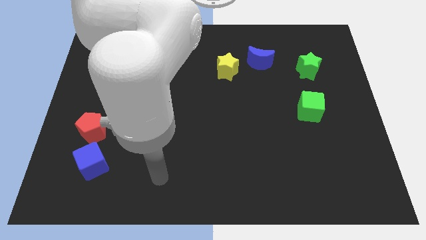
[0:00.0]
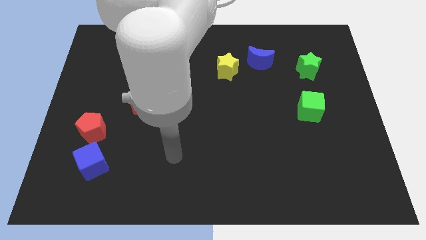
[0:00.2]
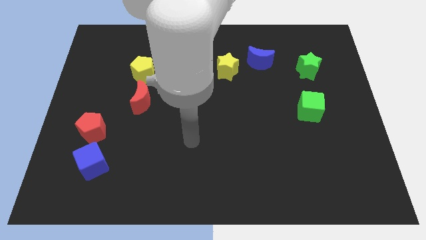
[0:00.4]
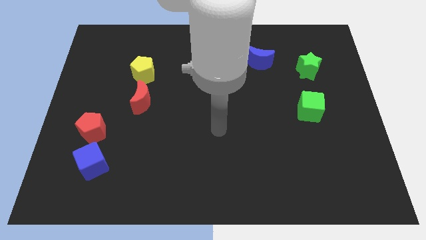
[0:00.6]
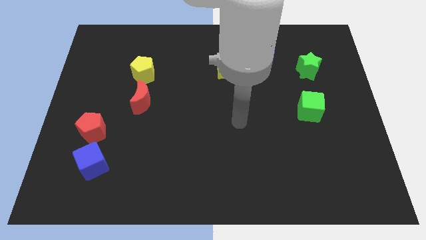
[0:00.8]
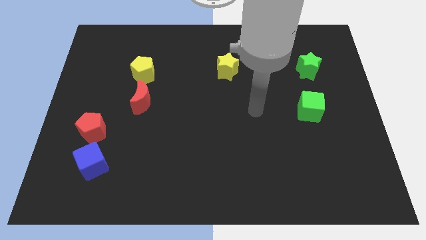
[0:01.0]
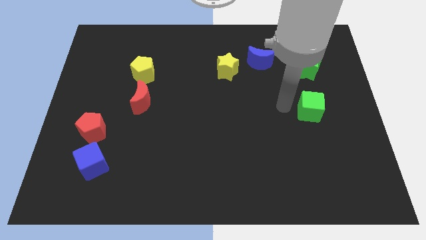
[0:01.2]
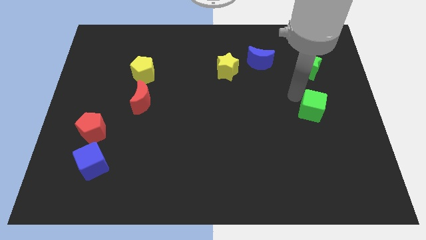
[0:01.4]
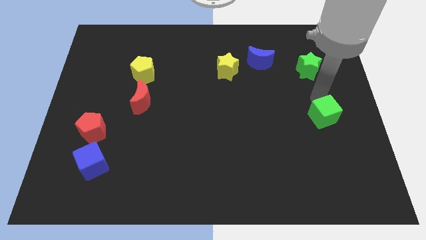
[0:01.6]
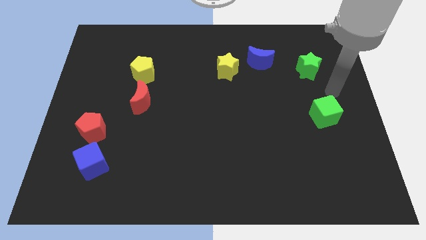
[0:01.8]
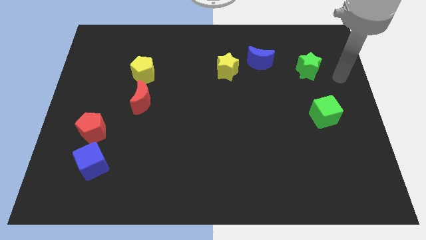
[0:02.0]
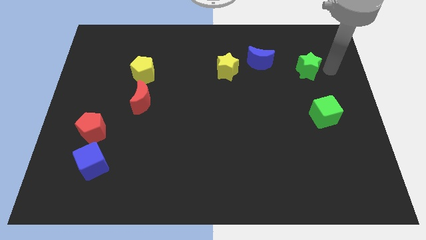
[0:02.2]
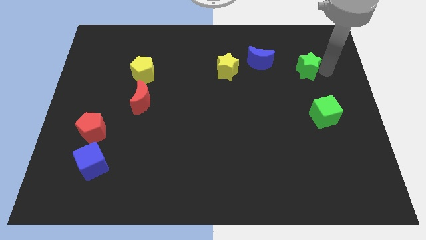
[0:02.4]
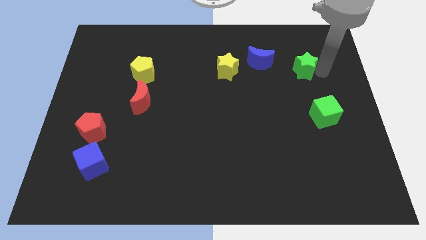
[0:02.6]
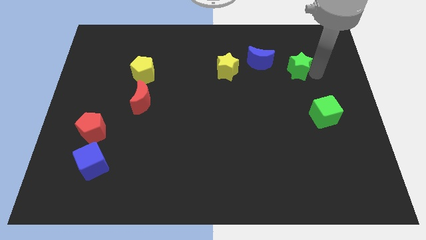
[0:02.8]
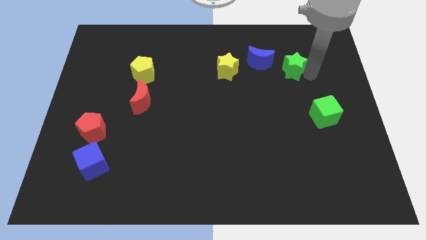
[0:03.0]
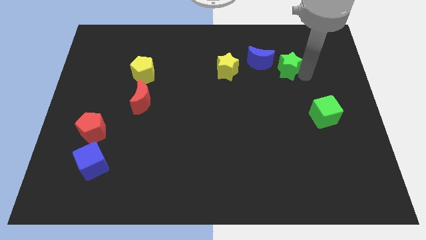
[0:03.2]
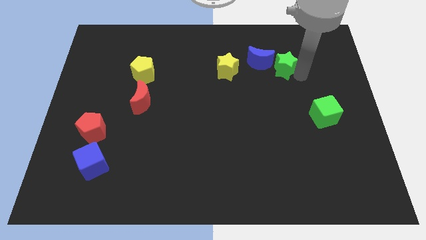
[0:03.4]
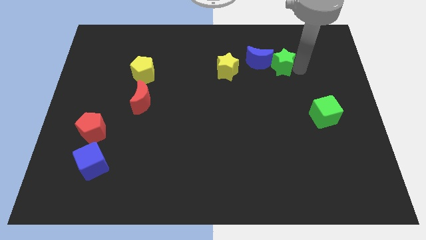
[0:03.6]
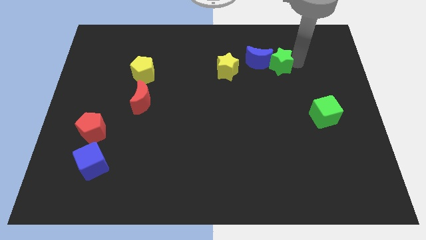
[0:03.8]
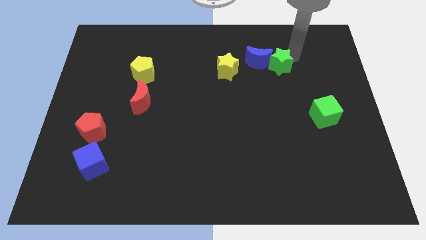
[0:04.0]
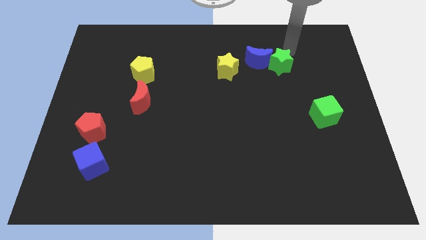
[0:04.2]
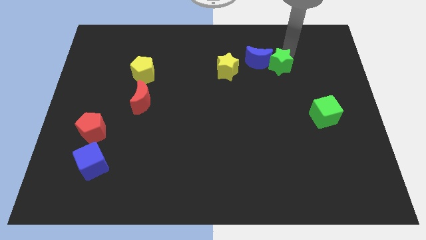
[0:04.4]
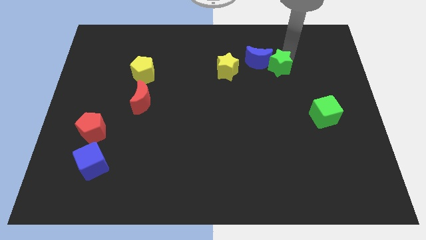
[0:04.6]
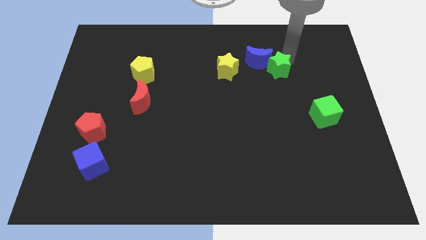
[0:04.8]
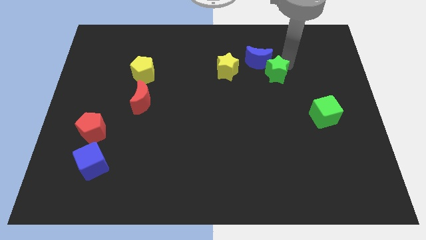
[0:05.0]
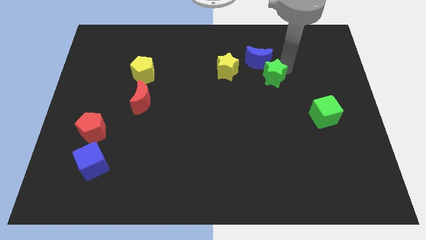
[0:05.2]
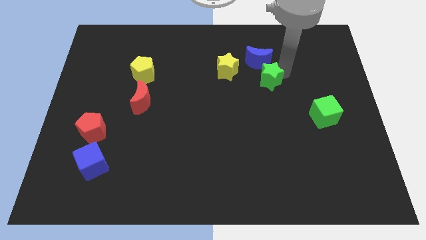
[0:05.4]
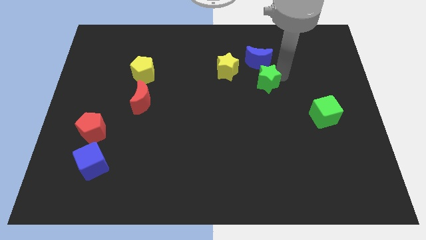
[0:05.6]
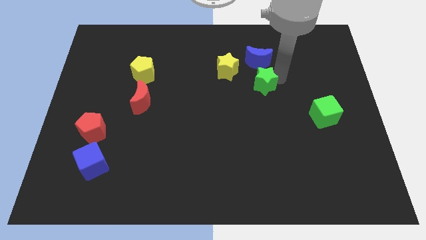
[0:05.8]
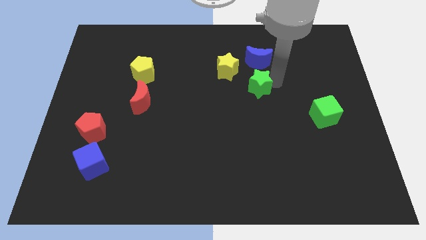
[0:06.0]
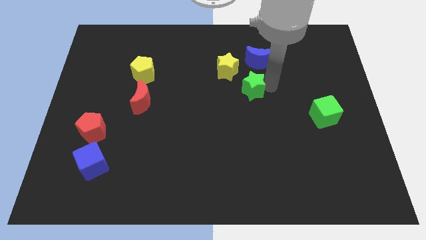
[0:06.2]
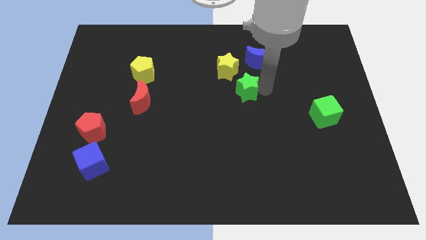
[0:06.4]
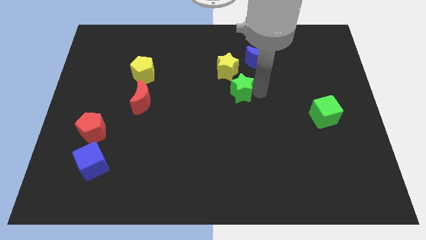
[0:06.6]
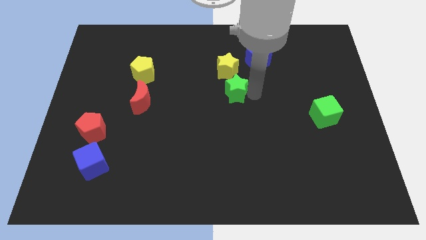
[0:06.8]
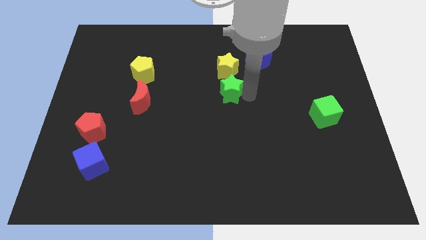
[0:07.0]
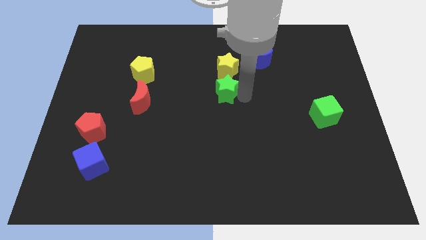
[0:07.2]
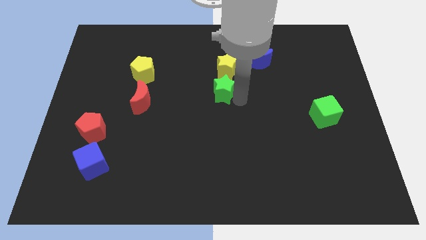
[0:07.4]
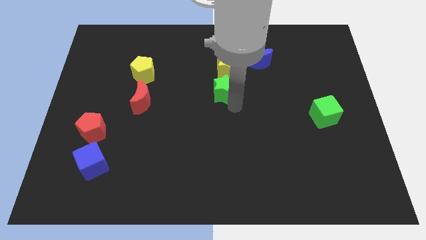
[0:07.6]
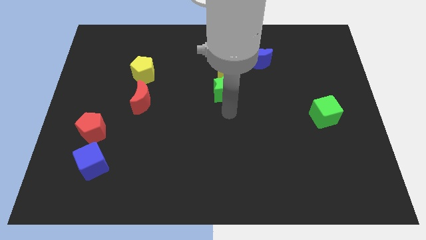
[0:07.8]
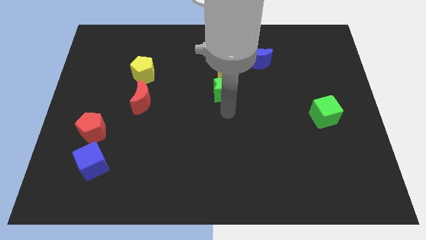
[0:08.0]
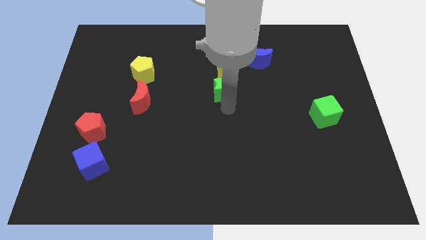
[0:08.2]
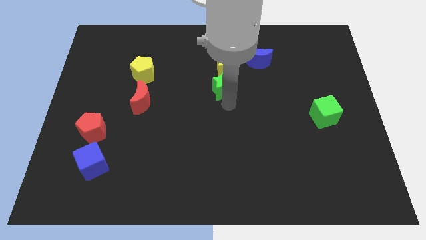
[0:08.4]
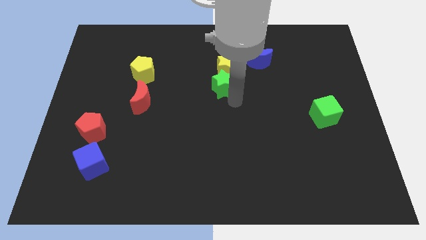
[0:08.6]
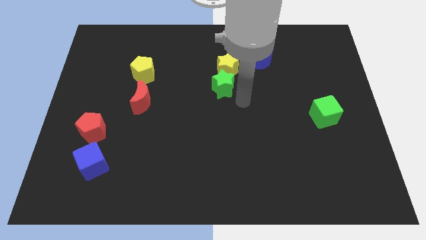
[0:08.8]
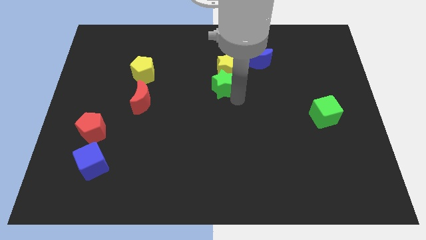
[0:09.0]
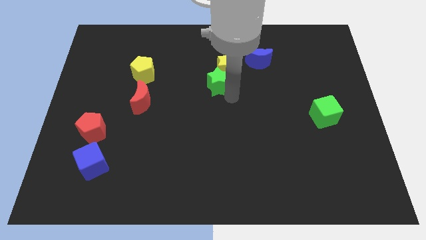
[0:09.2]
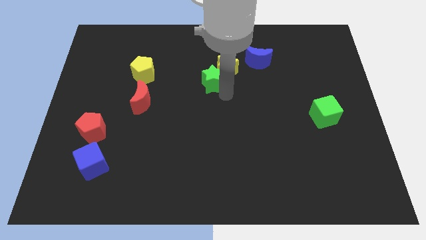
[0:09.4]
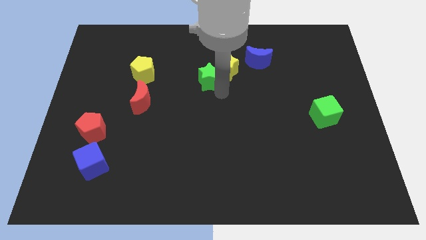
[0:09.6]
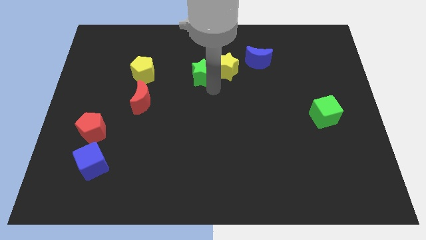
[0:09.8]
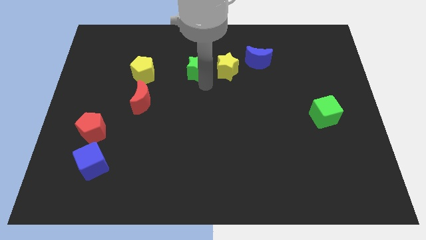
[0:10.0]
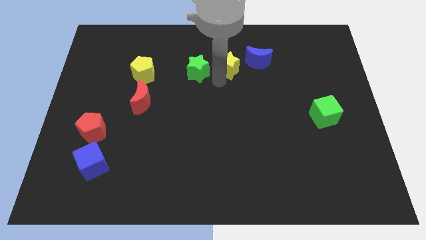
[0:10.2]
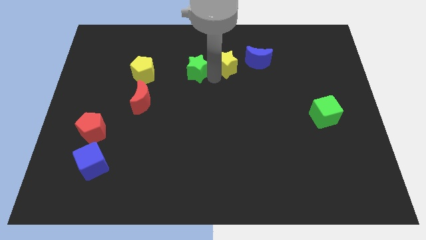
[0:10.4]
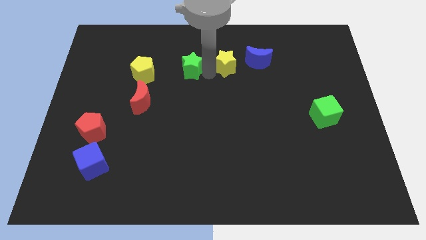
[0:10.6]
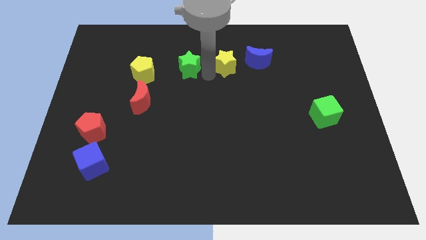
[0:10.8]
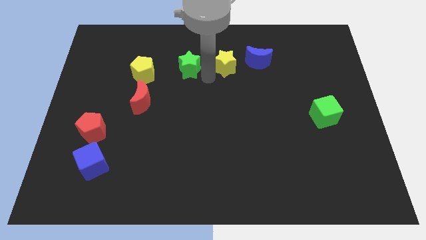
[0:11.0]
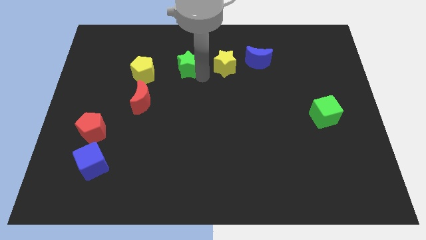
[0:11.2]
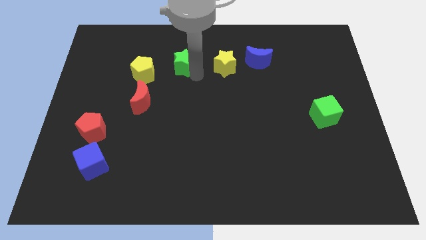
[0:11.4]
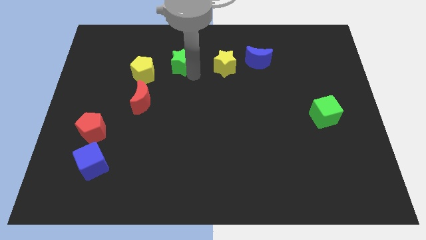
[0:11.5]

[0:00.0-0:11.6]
push the green star to the top right of the yellow pentagon

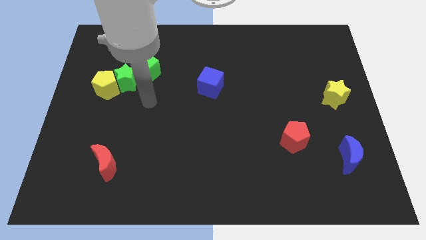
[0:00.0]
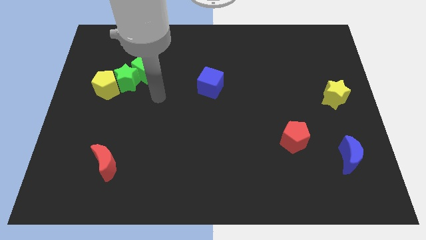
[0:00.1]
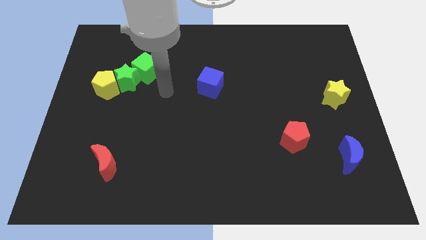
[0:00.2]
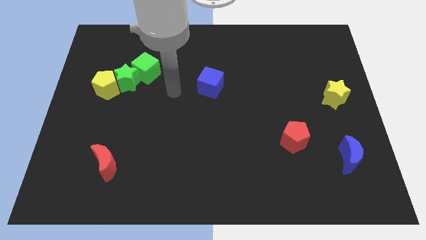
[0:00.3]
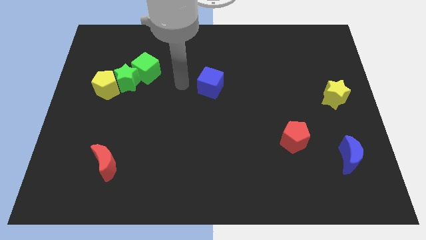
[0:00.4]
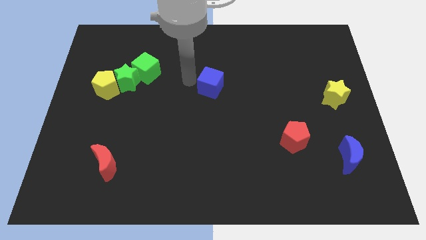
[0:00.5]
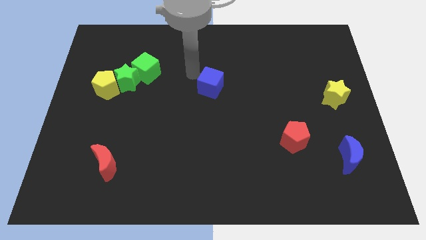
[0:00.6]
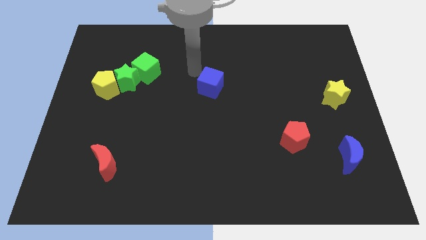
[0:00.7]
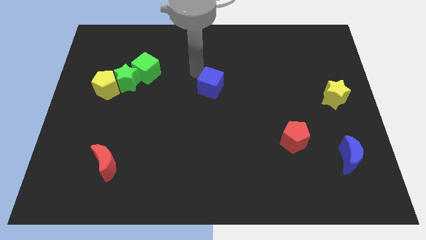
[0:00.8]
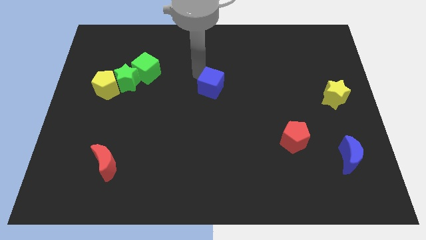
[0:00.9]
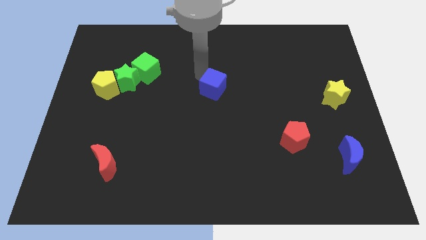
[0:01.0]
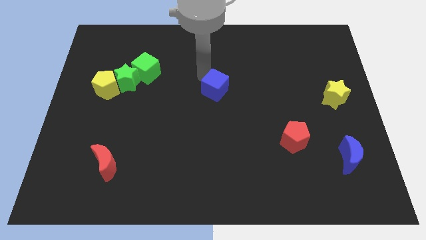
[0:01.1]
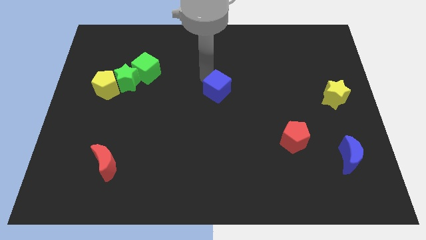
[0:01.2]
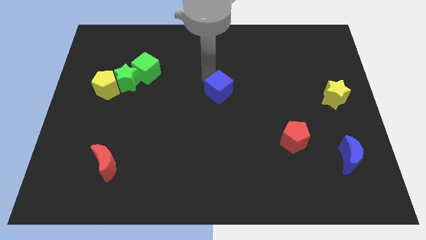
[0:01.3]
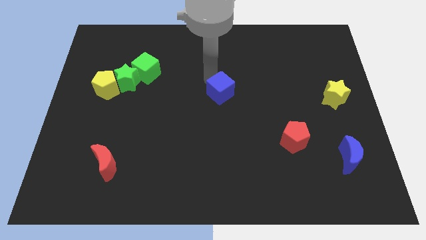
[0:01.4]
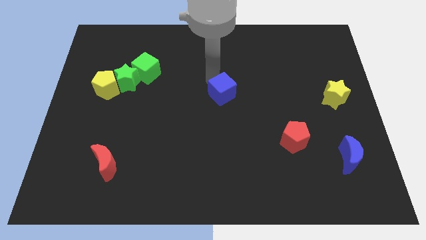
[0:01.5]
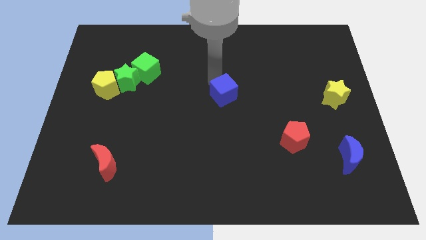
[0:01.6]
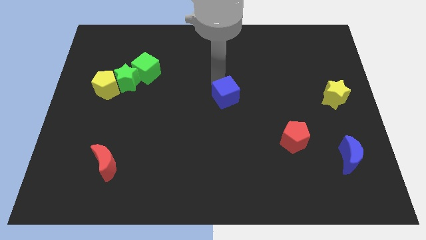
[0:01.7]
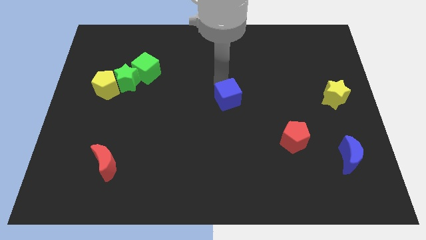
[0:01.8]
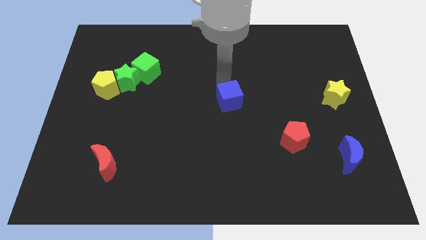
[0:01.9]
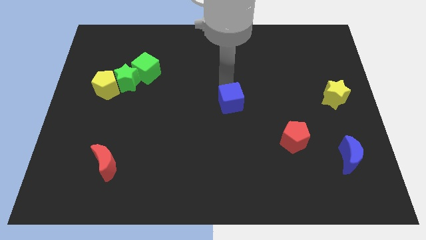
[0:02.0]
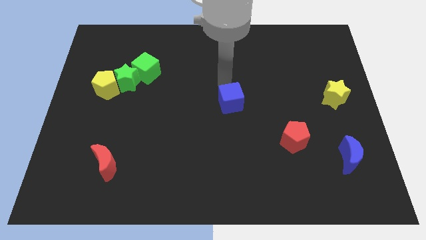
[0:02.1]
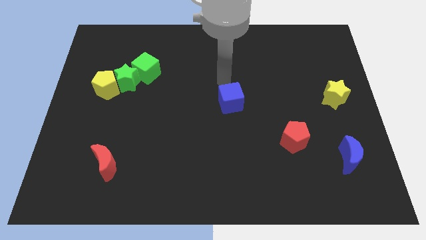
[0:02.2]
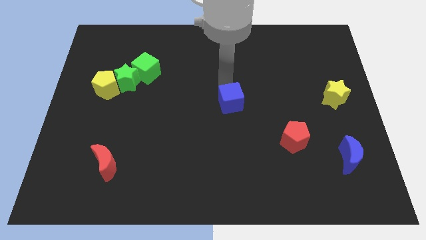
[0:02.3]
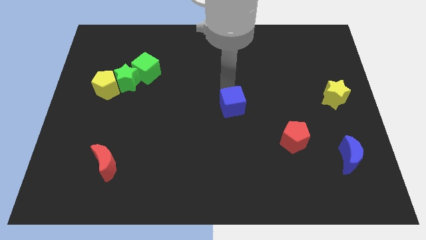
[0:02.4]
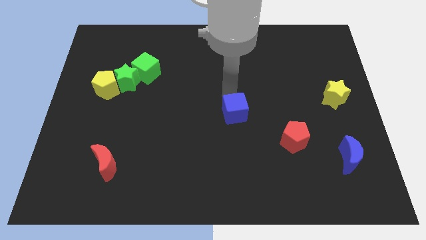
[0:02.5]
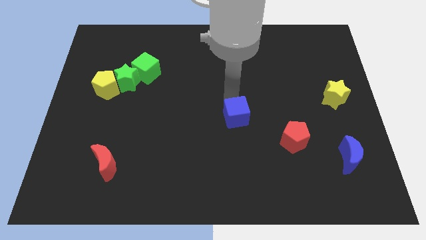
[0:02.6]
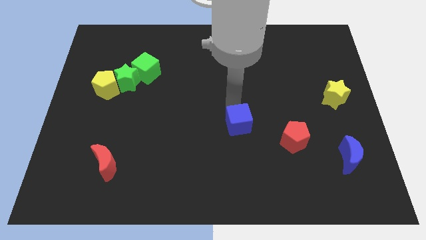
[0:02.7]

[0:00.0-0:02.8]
put the blue cube to the left side of the red pentagon
